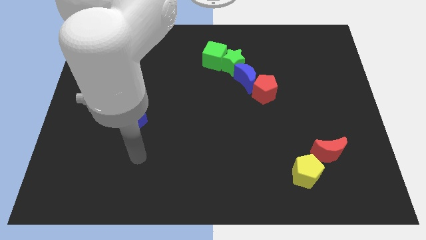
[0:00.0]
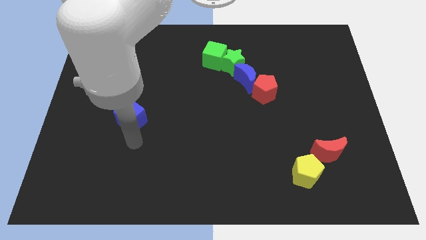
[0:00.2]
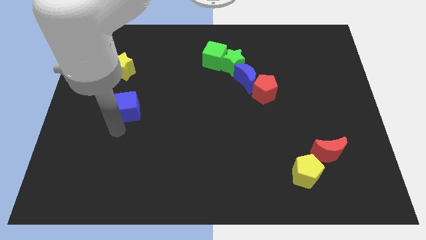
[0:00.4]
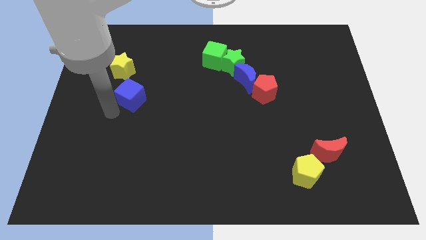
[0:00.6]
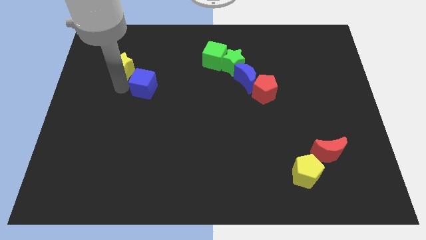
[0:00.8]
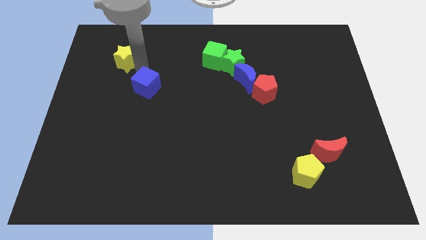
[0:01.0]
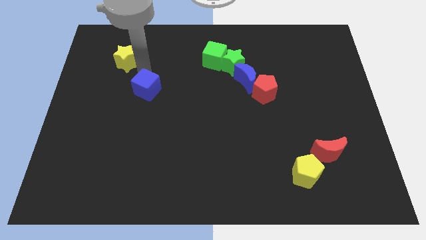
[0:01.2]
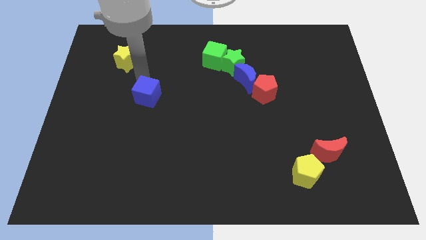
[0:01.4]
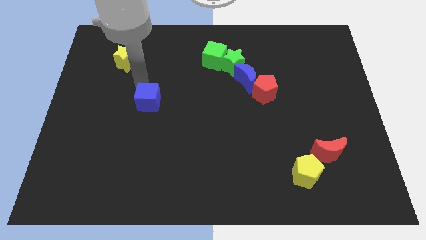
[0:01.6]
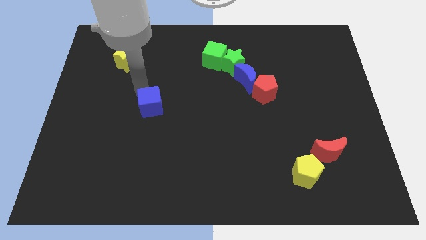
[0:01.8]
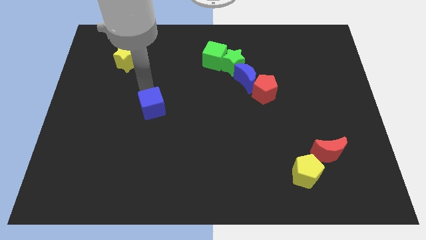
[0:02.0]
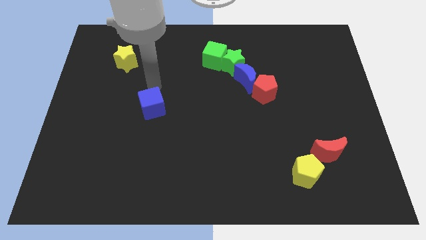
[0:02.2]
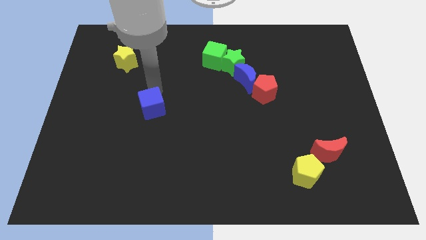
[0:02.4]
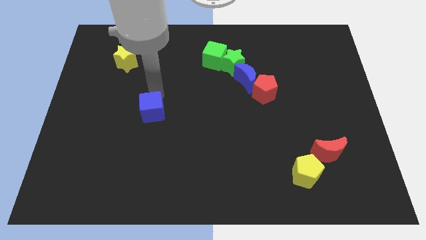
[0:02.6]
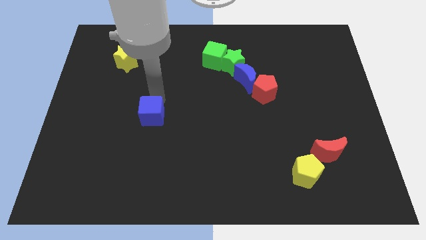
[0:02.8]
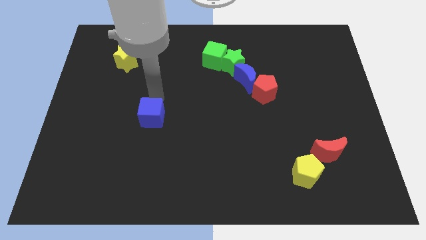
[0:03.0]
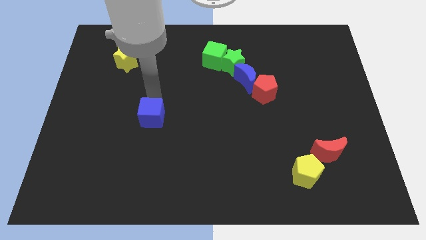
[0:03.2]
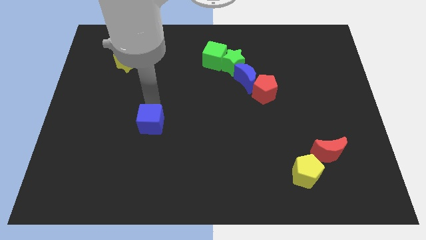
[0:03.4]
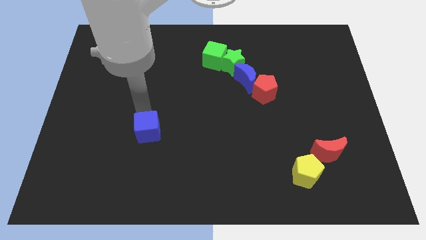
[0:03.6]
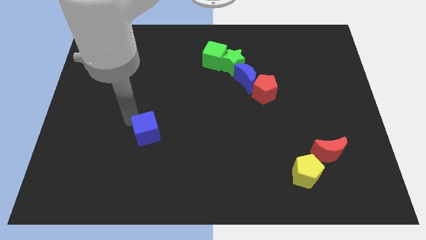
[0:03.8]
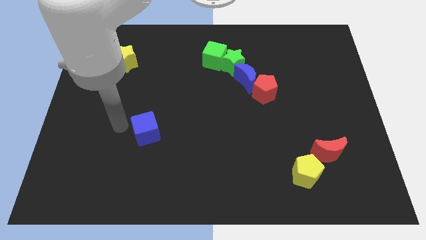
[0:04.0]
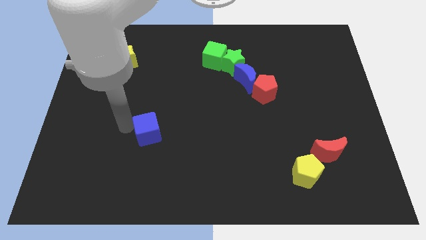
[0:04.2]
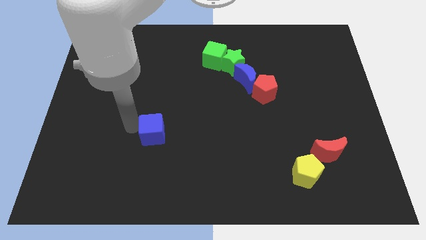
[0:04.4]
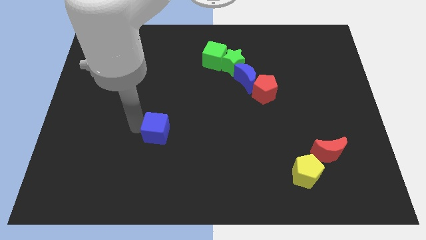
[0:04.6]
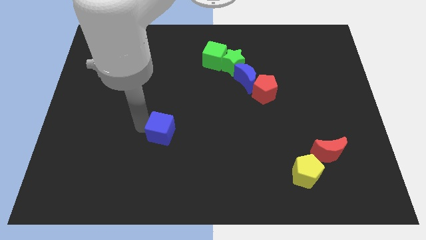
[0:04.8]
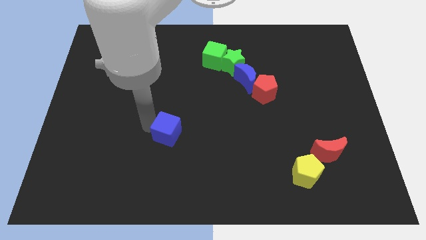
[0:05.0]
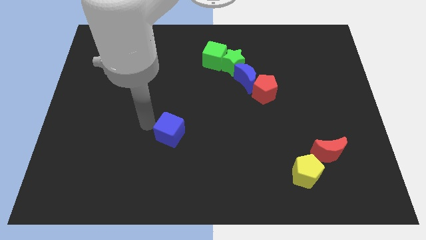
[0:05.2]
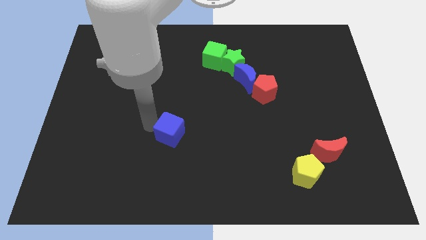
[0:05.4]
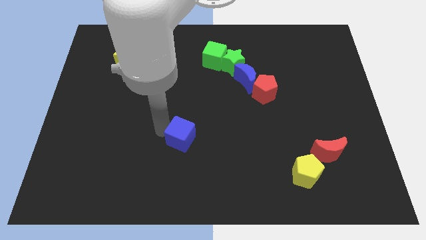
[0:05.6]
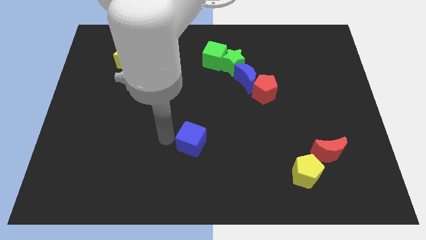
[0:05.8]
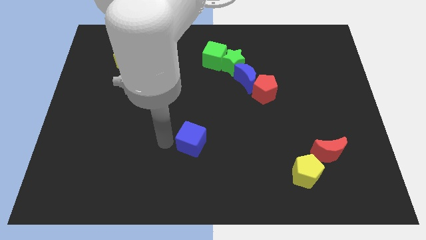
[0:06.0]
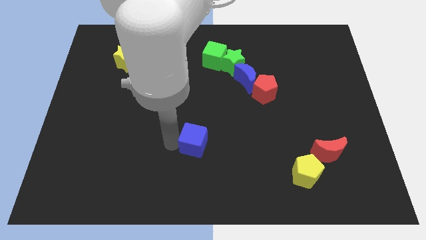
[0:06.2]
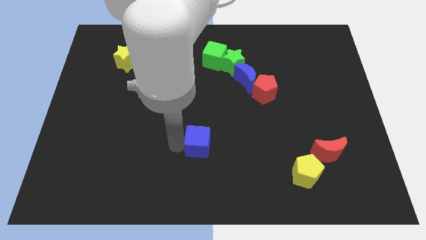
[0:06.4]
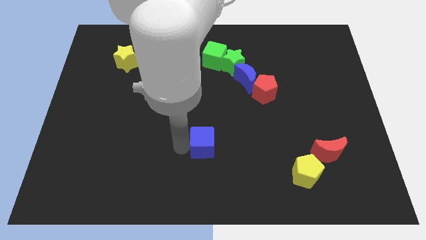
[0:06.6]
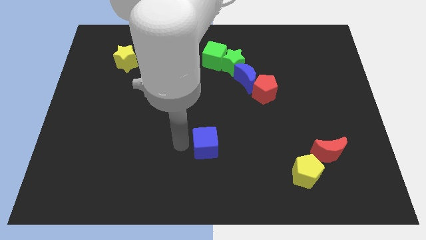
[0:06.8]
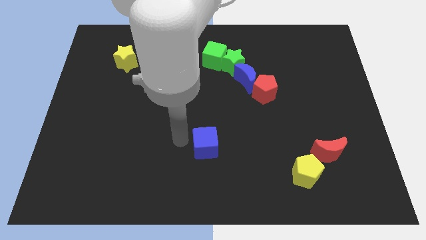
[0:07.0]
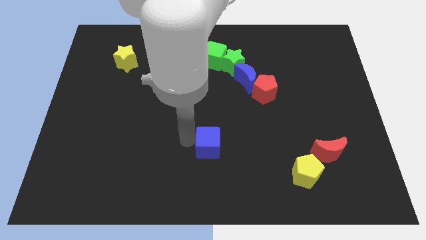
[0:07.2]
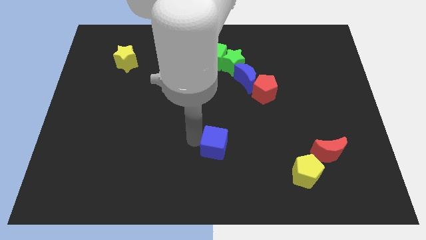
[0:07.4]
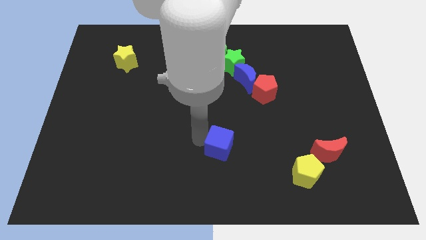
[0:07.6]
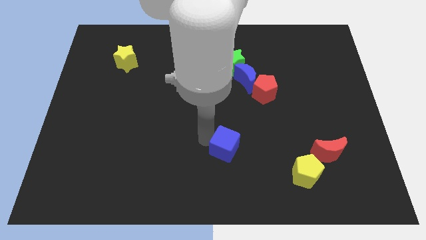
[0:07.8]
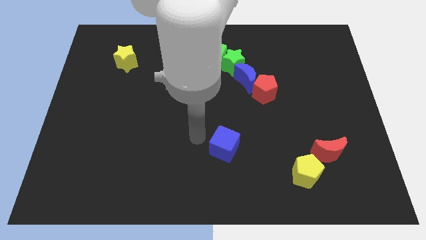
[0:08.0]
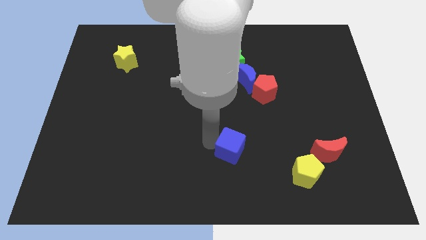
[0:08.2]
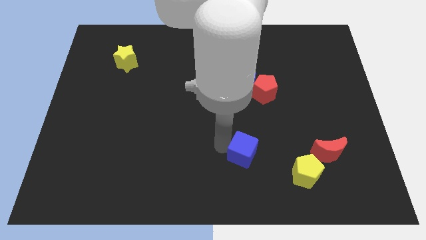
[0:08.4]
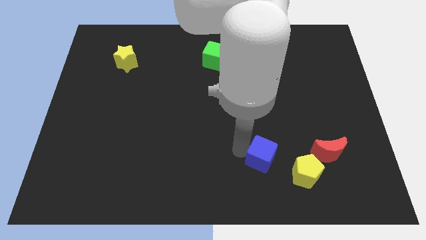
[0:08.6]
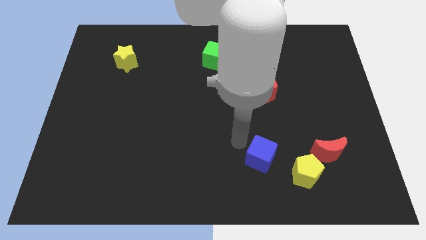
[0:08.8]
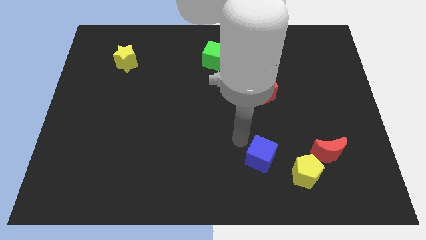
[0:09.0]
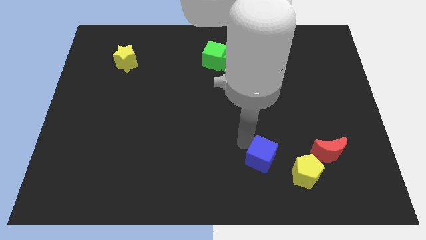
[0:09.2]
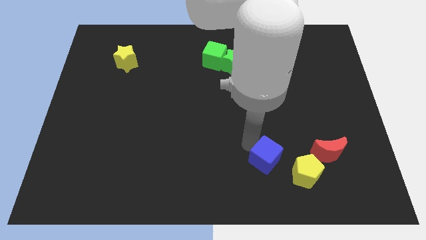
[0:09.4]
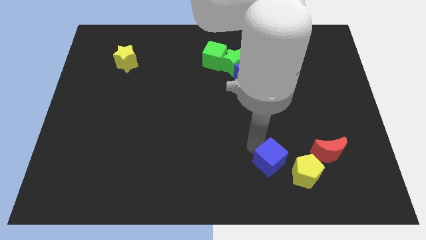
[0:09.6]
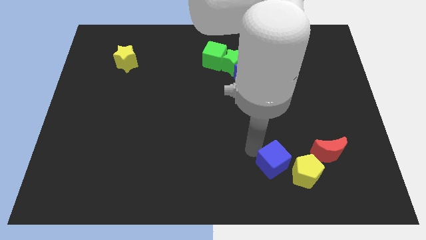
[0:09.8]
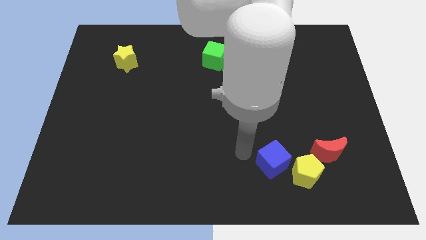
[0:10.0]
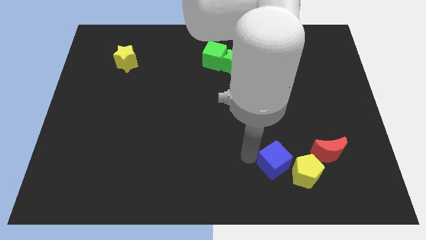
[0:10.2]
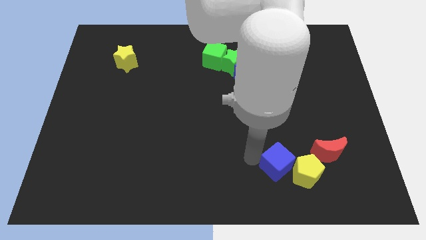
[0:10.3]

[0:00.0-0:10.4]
move the blue cube next to the yellow pentagon

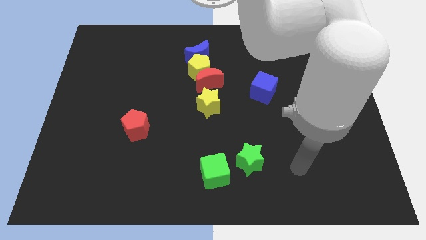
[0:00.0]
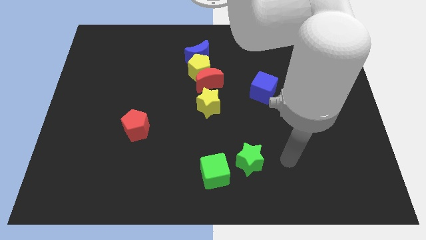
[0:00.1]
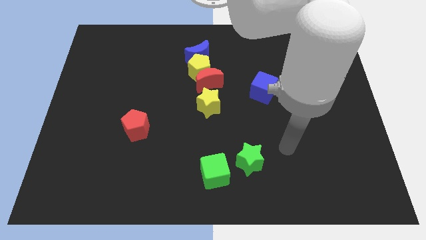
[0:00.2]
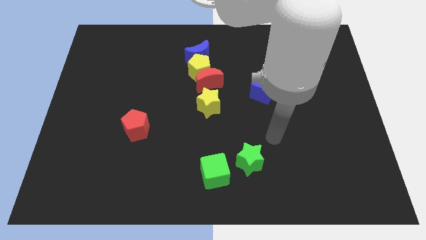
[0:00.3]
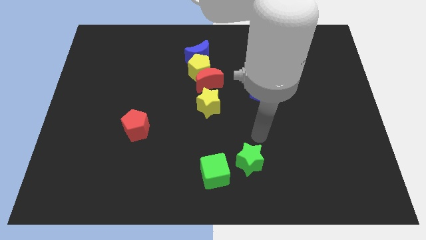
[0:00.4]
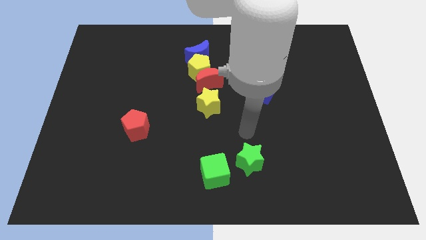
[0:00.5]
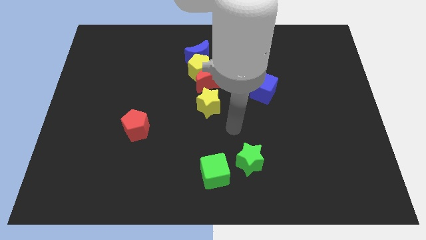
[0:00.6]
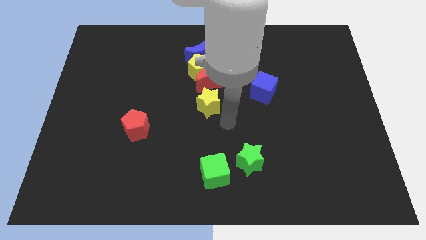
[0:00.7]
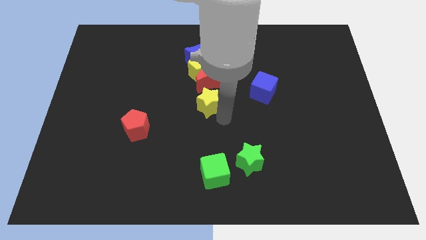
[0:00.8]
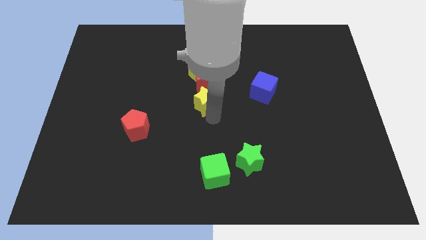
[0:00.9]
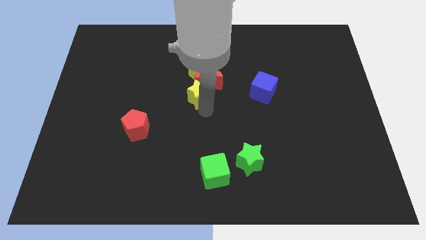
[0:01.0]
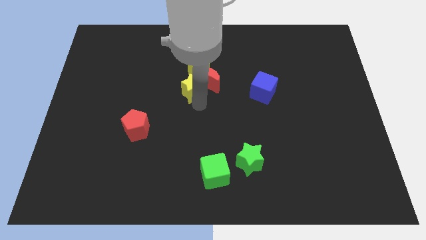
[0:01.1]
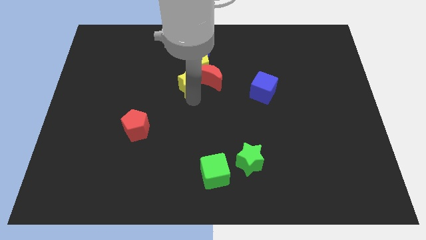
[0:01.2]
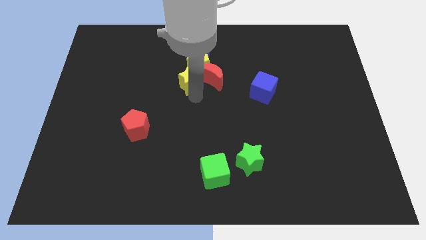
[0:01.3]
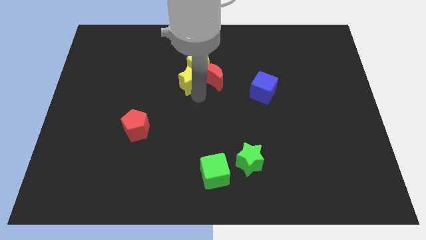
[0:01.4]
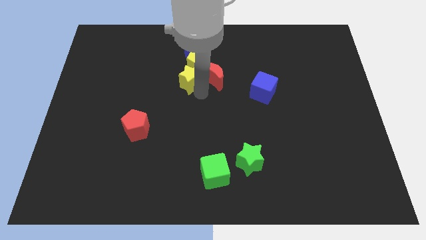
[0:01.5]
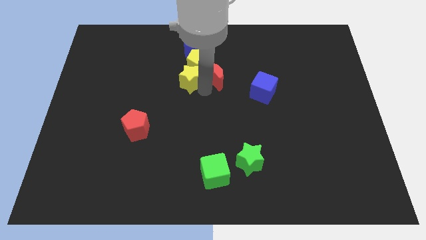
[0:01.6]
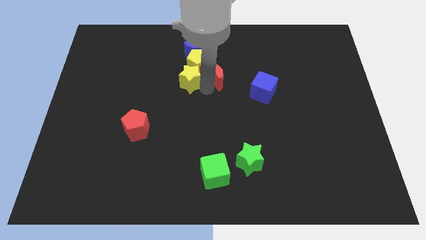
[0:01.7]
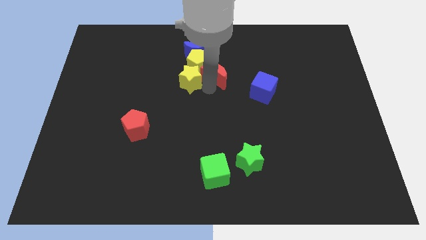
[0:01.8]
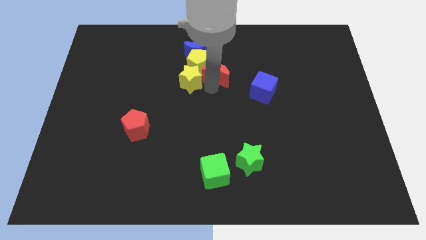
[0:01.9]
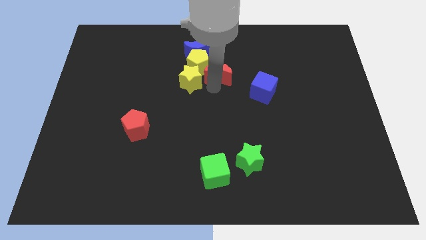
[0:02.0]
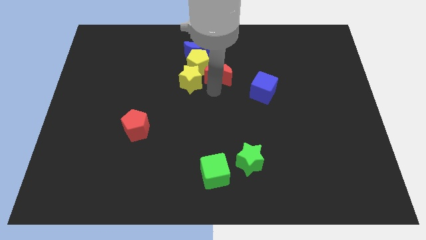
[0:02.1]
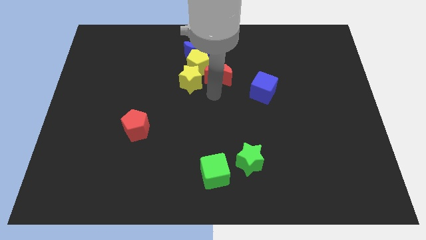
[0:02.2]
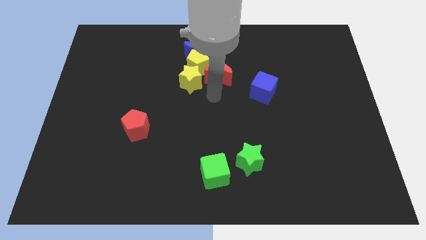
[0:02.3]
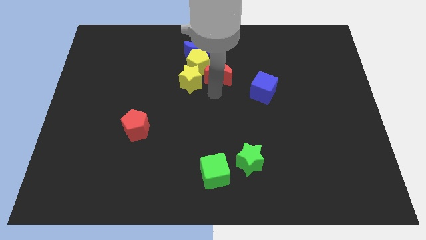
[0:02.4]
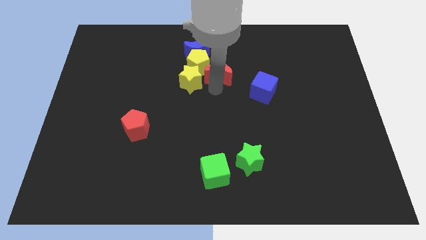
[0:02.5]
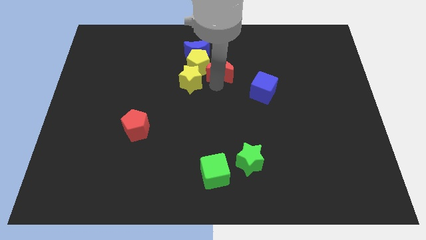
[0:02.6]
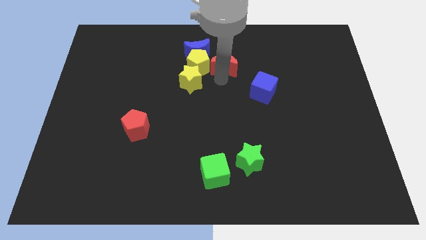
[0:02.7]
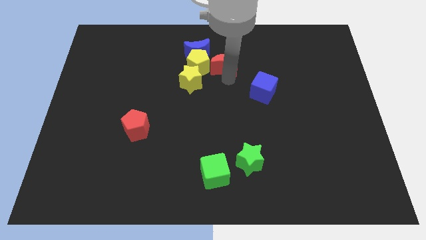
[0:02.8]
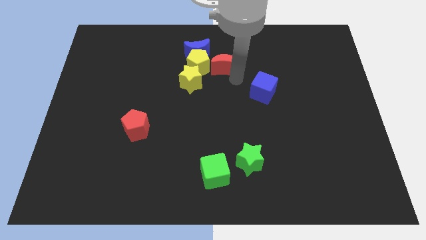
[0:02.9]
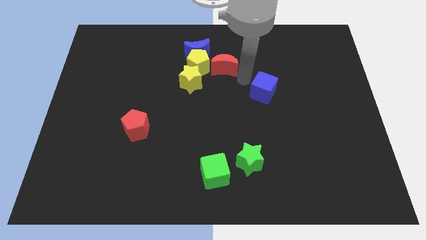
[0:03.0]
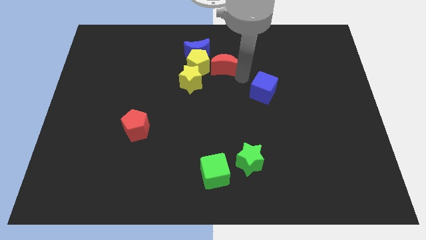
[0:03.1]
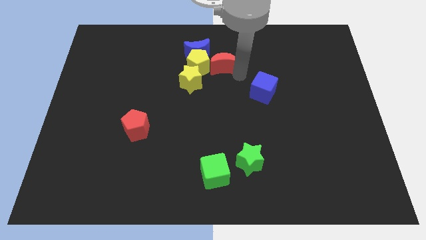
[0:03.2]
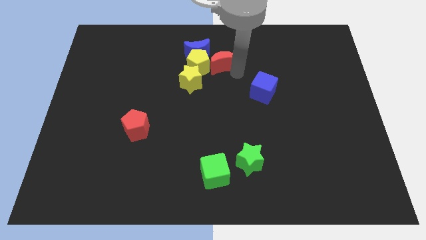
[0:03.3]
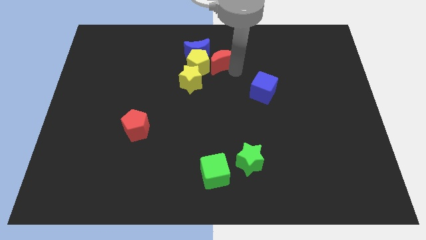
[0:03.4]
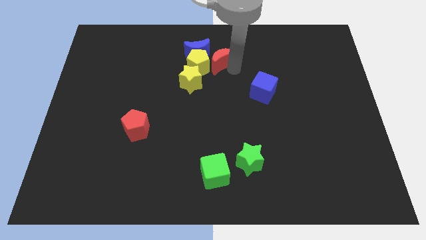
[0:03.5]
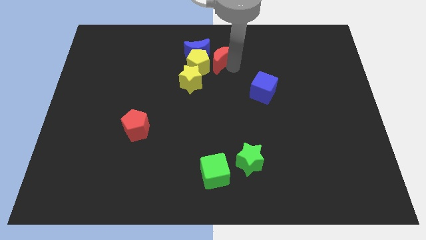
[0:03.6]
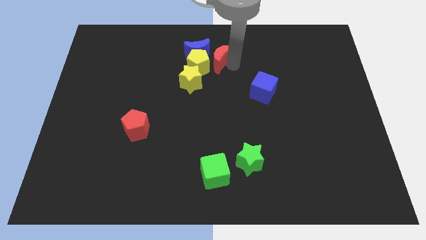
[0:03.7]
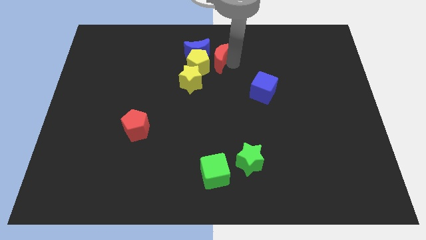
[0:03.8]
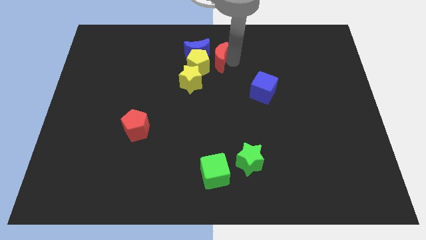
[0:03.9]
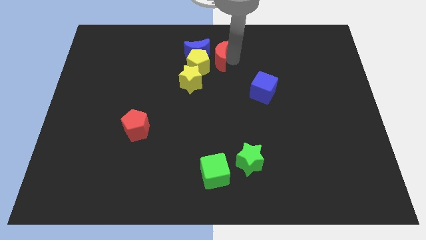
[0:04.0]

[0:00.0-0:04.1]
move the red moon close to the blue moon
